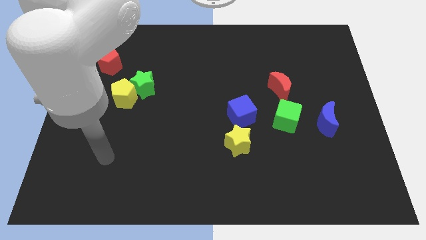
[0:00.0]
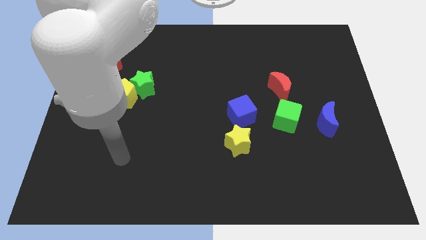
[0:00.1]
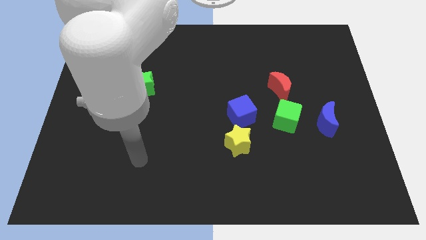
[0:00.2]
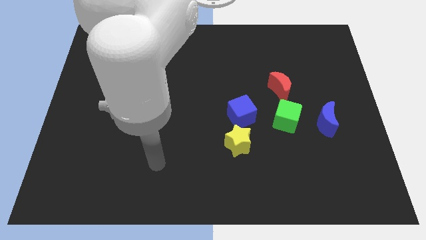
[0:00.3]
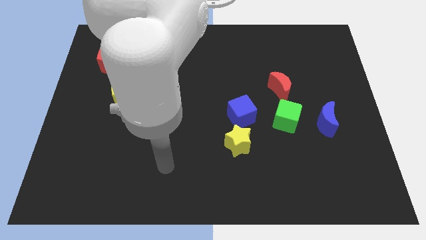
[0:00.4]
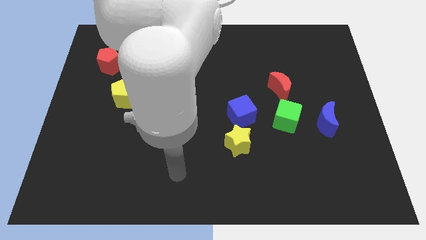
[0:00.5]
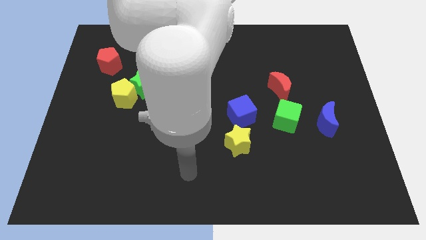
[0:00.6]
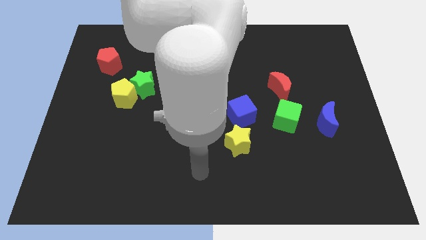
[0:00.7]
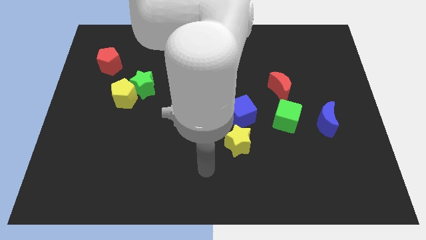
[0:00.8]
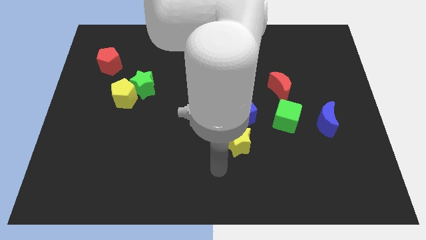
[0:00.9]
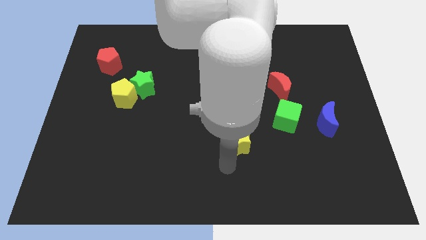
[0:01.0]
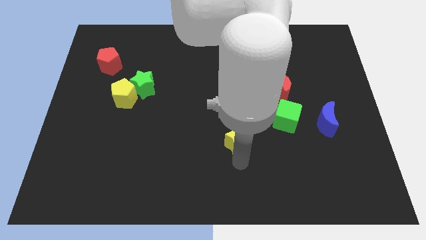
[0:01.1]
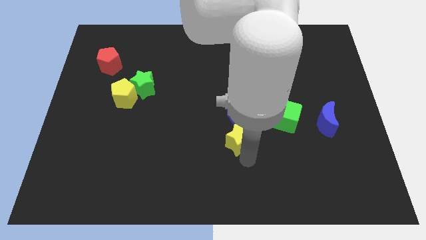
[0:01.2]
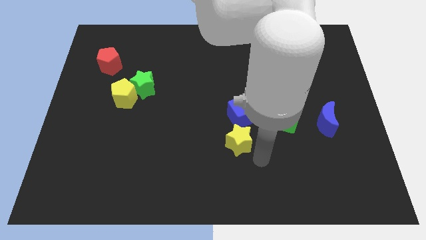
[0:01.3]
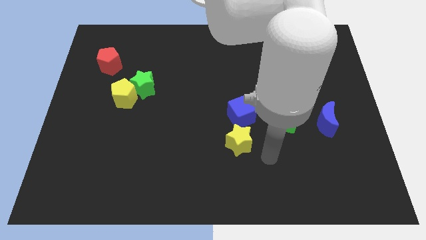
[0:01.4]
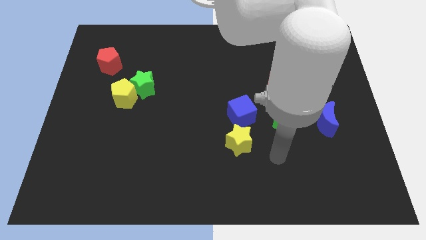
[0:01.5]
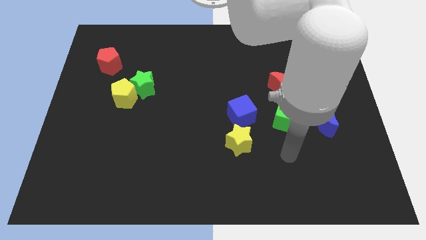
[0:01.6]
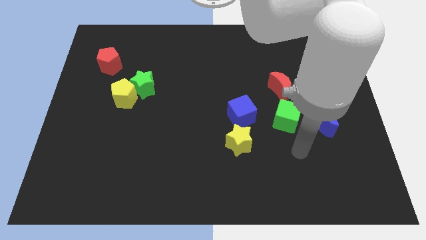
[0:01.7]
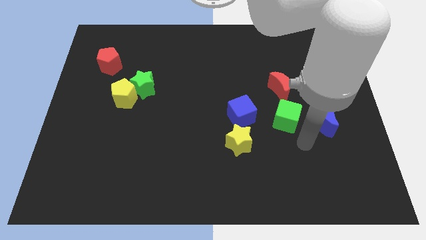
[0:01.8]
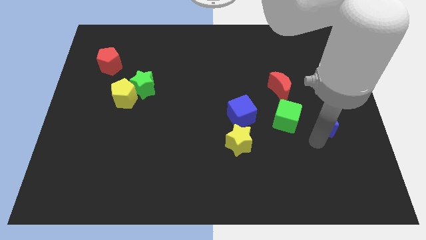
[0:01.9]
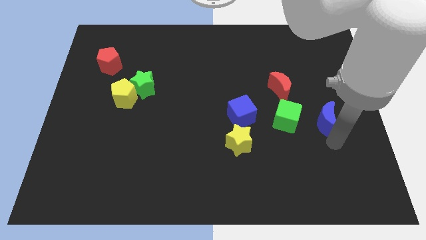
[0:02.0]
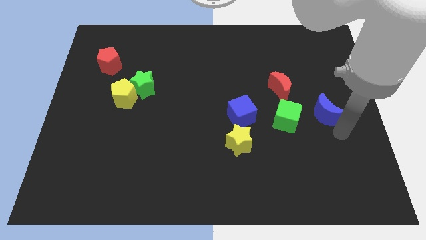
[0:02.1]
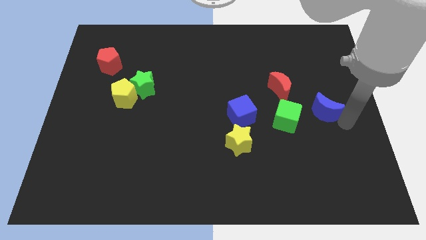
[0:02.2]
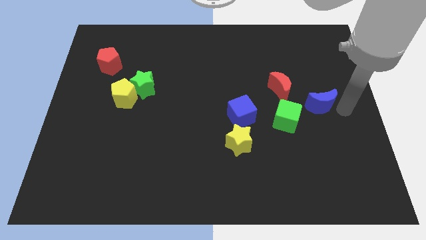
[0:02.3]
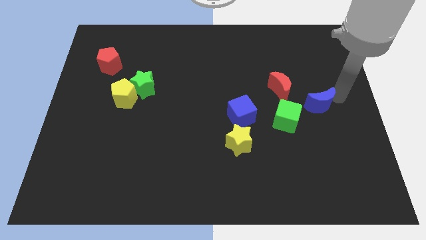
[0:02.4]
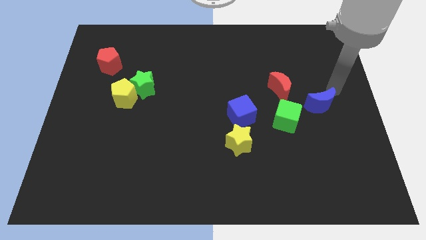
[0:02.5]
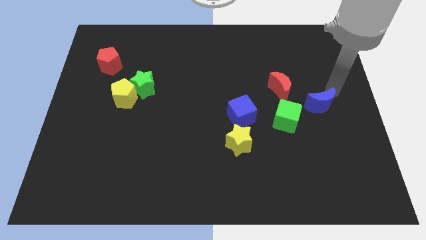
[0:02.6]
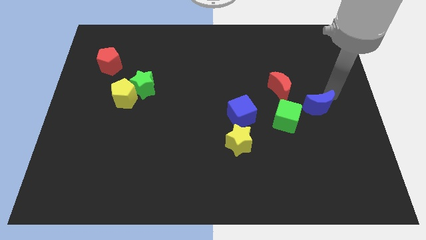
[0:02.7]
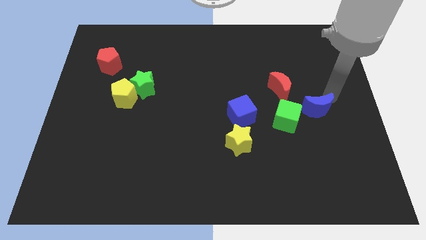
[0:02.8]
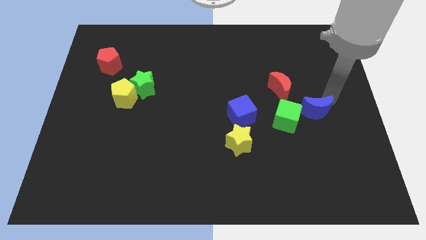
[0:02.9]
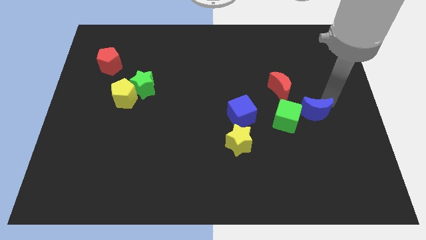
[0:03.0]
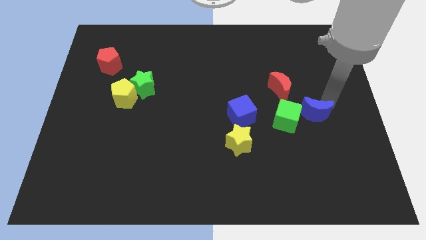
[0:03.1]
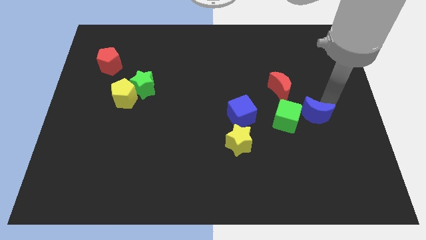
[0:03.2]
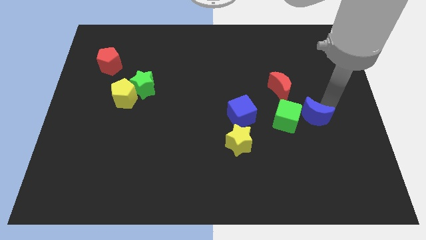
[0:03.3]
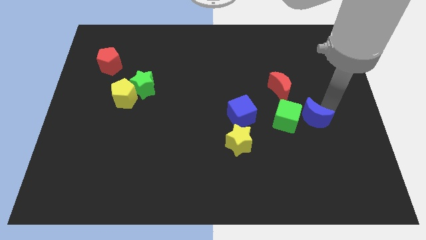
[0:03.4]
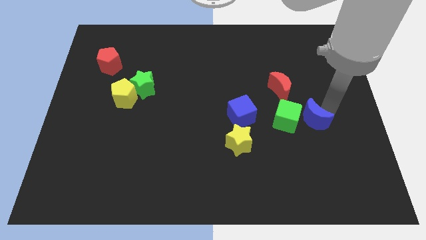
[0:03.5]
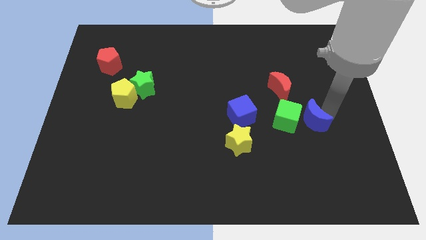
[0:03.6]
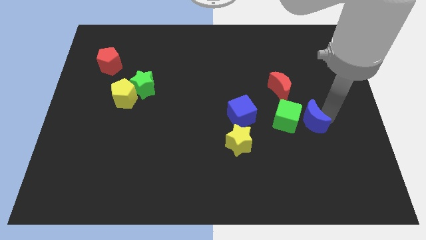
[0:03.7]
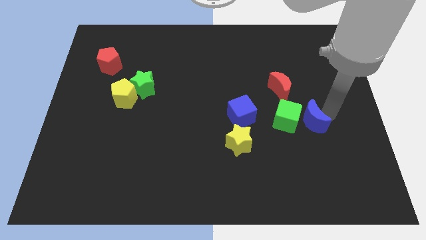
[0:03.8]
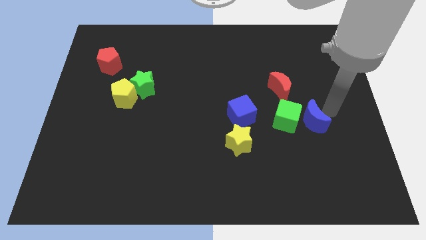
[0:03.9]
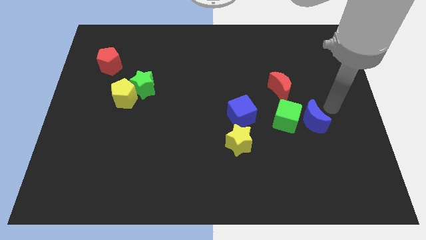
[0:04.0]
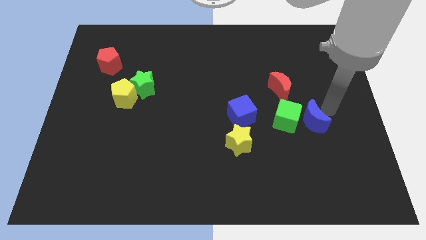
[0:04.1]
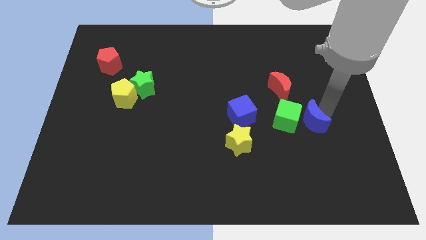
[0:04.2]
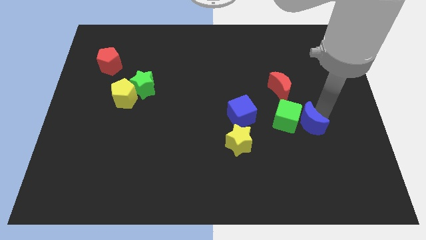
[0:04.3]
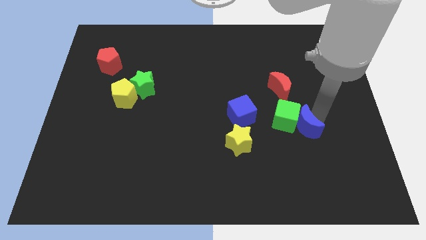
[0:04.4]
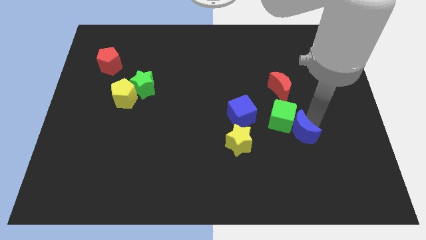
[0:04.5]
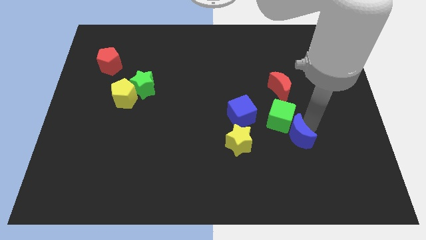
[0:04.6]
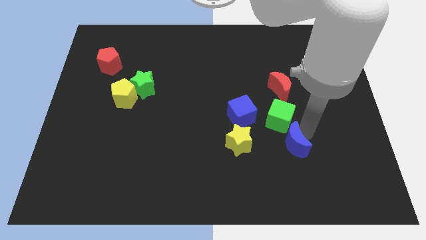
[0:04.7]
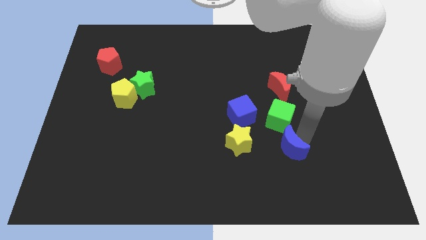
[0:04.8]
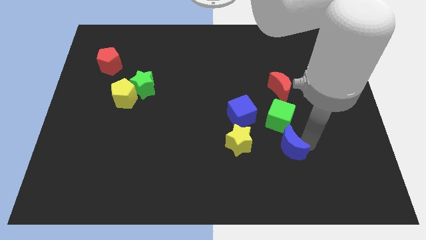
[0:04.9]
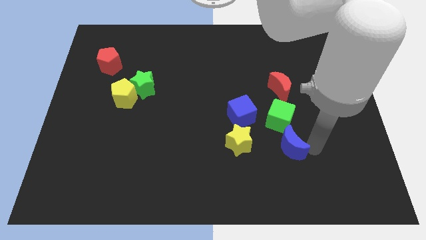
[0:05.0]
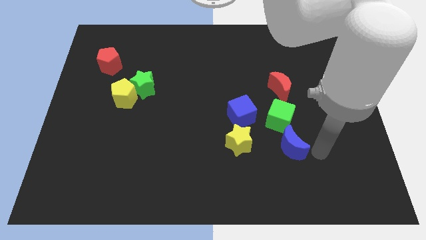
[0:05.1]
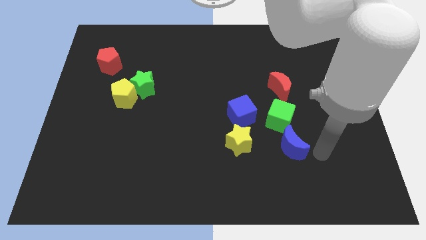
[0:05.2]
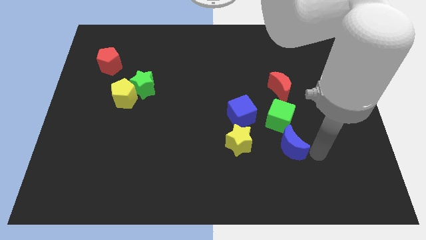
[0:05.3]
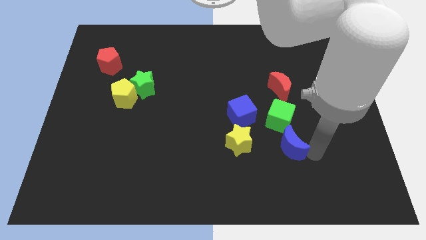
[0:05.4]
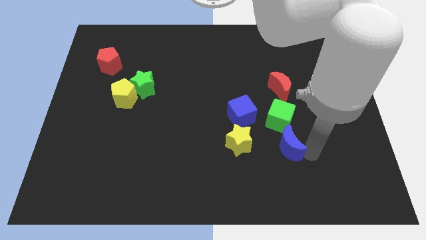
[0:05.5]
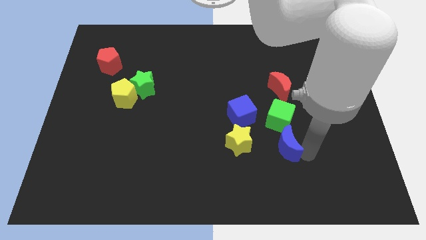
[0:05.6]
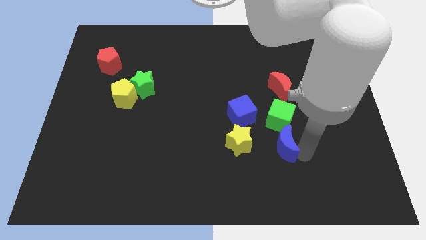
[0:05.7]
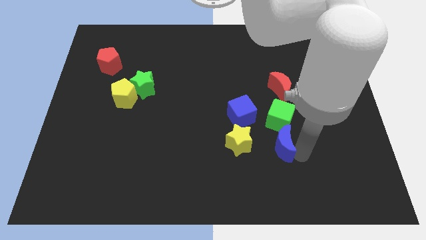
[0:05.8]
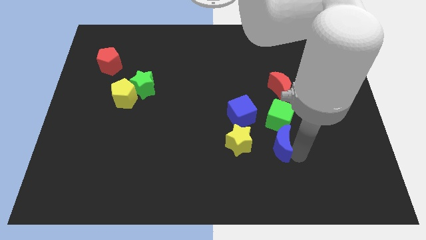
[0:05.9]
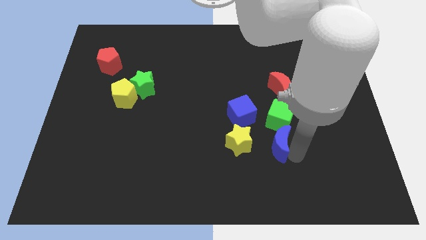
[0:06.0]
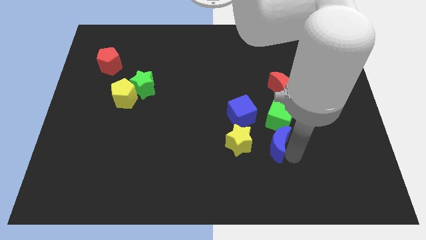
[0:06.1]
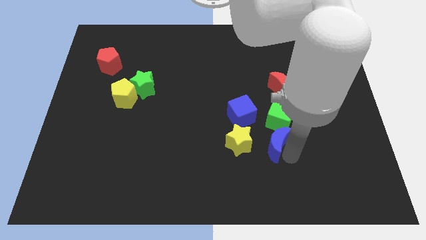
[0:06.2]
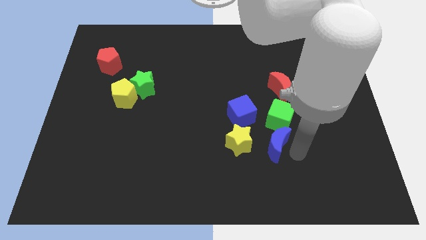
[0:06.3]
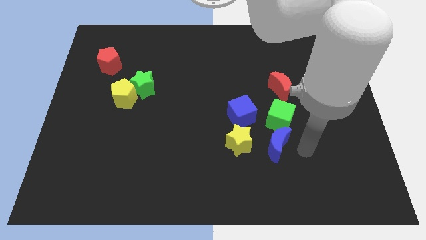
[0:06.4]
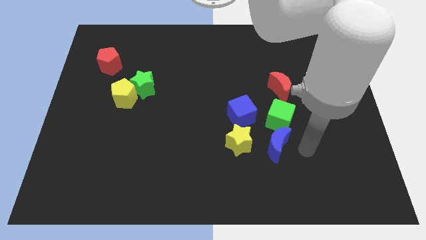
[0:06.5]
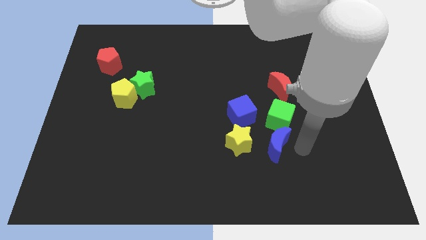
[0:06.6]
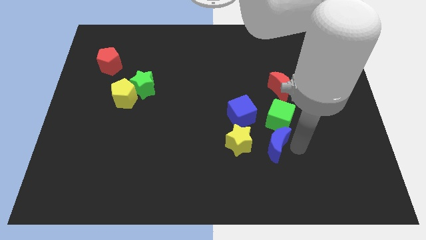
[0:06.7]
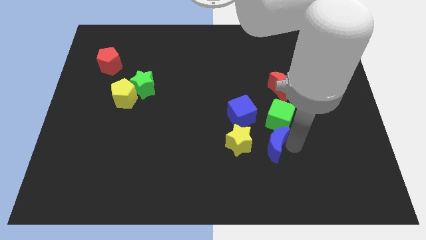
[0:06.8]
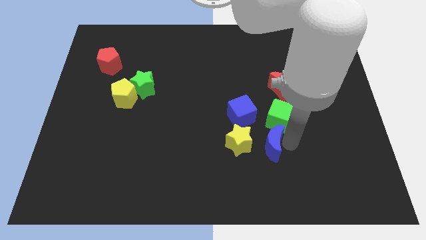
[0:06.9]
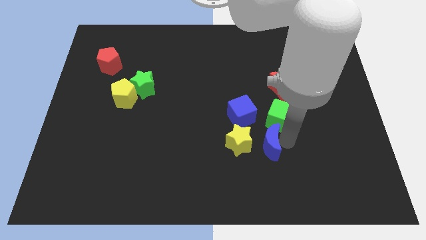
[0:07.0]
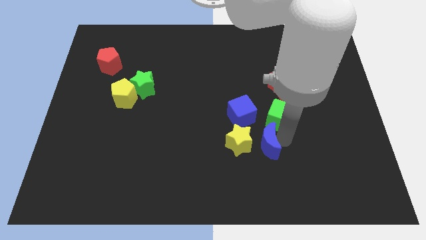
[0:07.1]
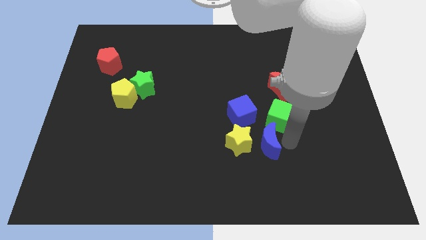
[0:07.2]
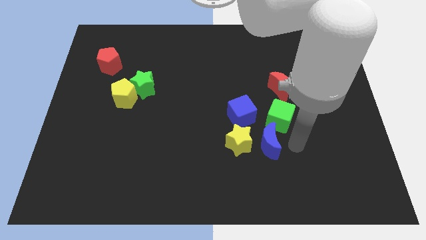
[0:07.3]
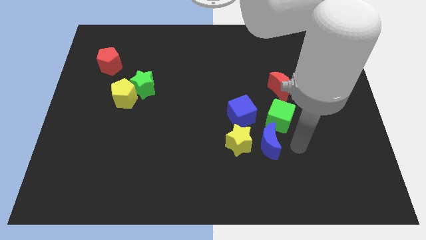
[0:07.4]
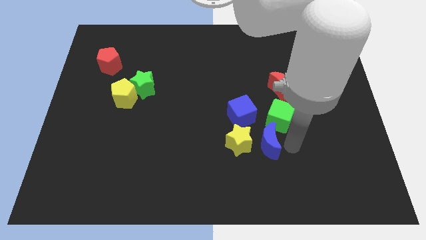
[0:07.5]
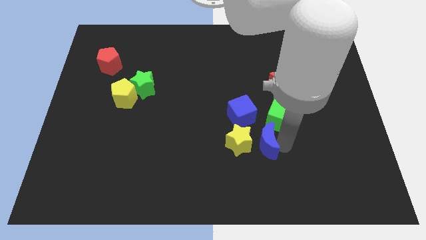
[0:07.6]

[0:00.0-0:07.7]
push the blue moon towards the yellow star
